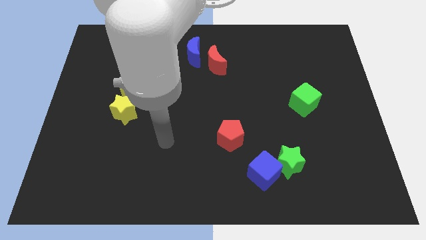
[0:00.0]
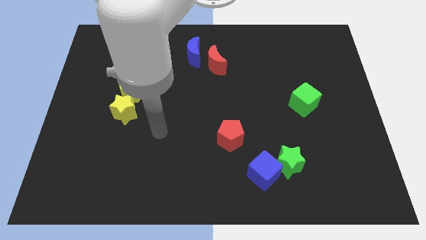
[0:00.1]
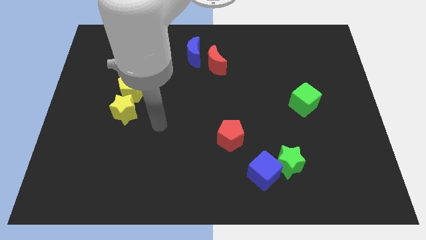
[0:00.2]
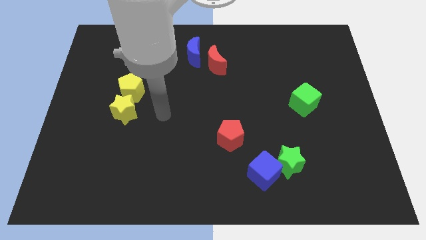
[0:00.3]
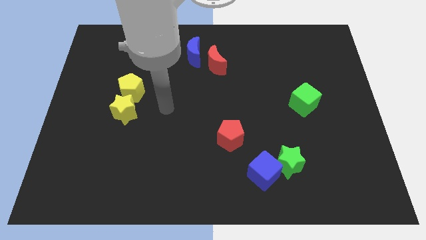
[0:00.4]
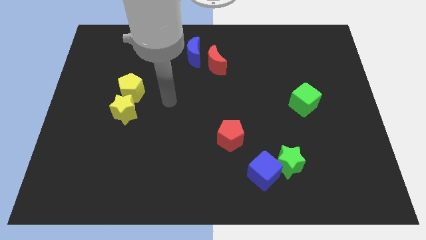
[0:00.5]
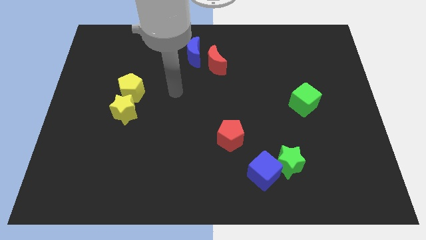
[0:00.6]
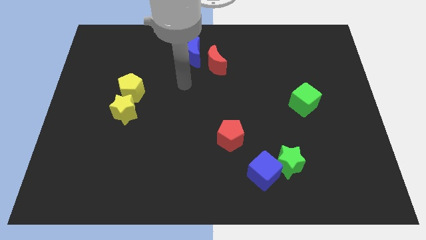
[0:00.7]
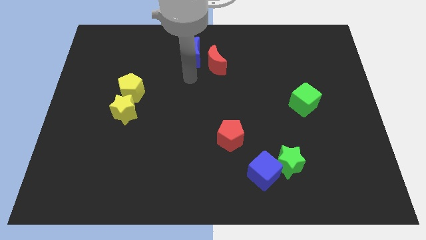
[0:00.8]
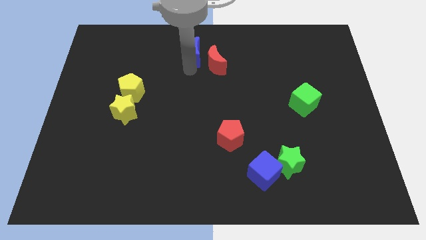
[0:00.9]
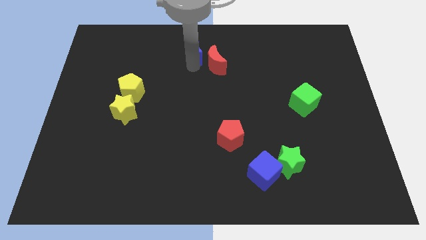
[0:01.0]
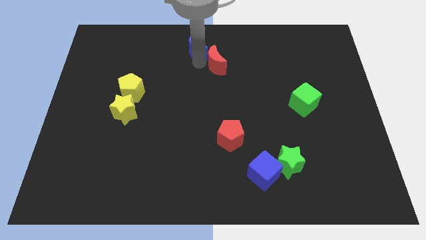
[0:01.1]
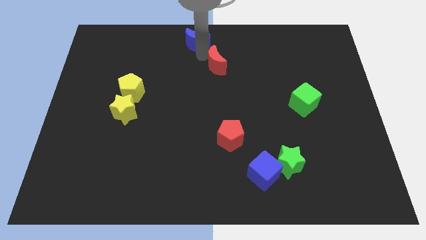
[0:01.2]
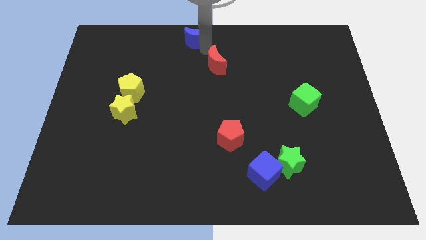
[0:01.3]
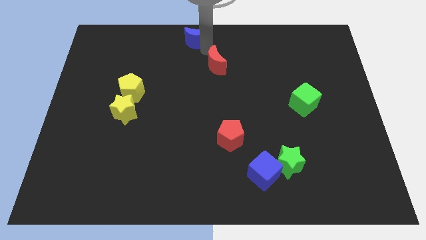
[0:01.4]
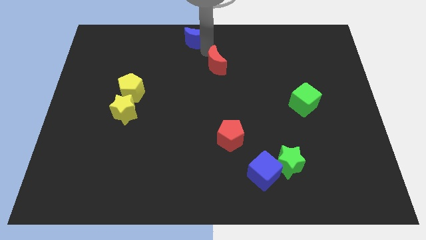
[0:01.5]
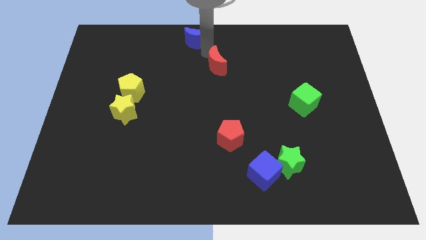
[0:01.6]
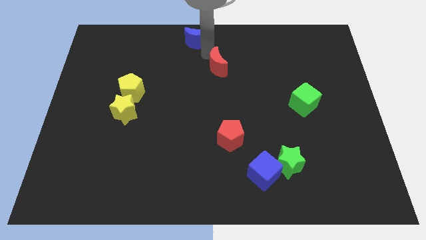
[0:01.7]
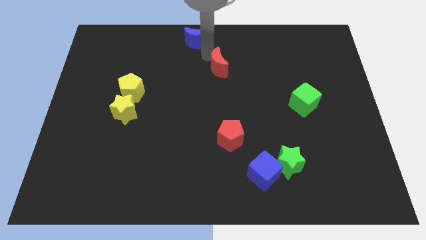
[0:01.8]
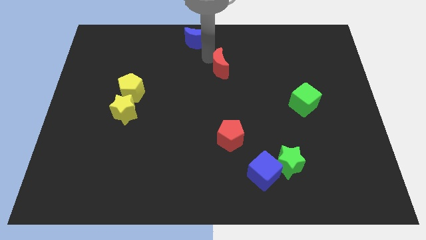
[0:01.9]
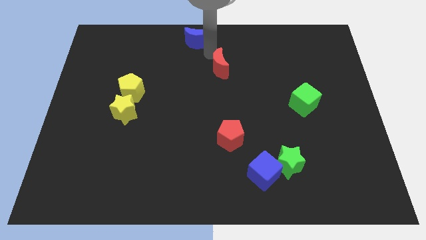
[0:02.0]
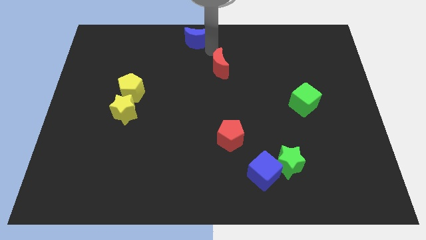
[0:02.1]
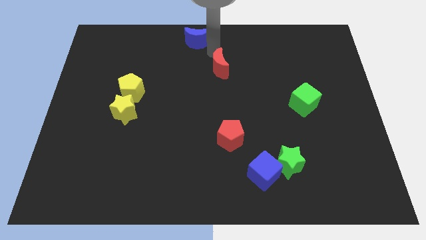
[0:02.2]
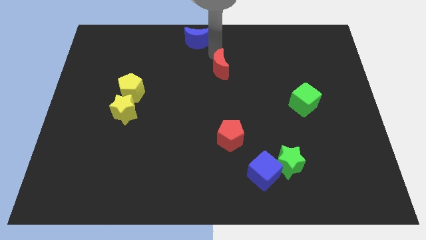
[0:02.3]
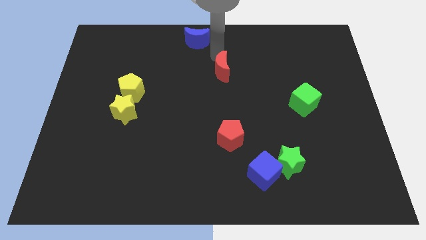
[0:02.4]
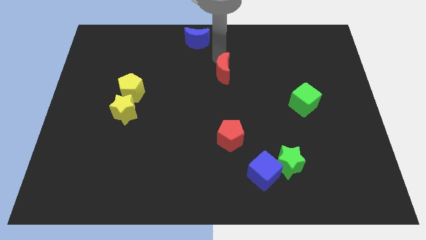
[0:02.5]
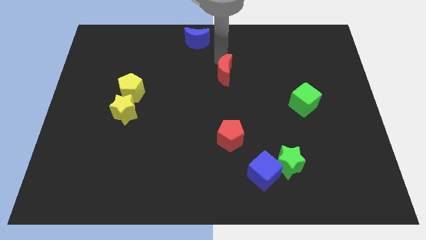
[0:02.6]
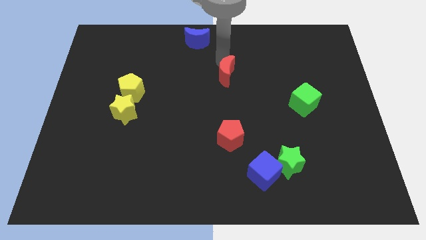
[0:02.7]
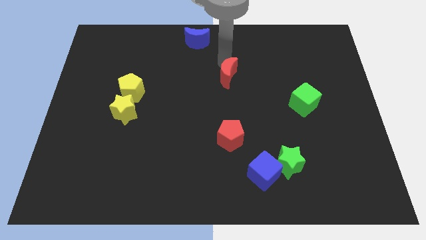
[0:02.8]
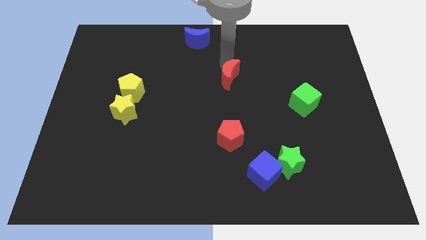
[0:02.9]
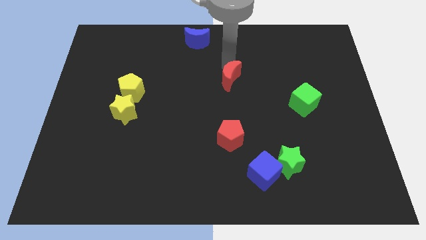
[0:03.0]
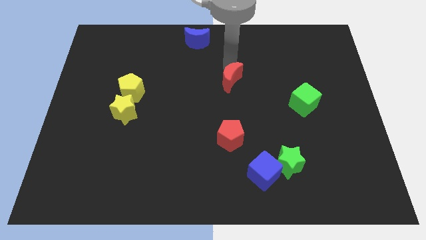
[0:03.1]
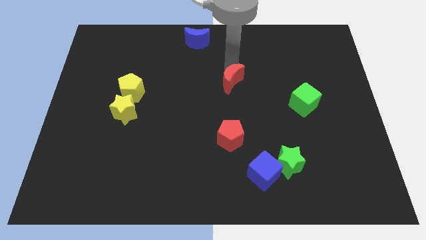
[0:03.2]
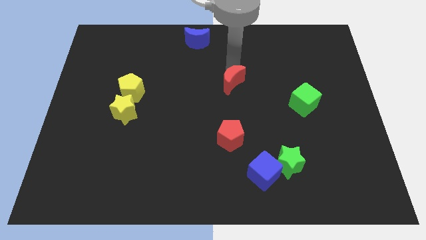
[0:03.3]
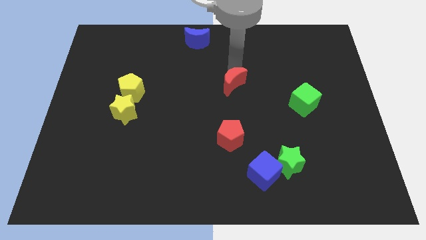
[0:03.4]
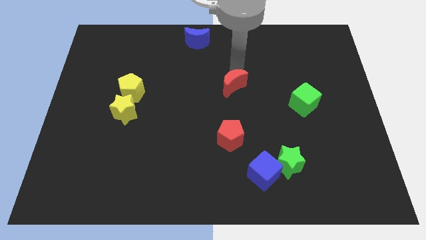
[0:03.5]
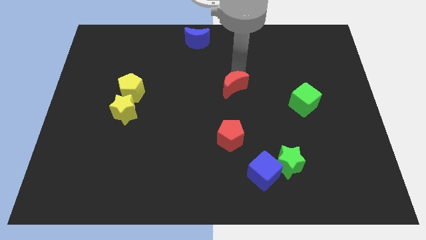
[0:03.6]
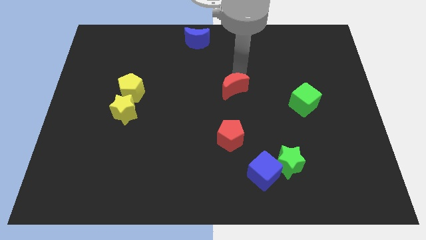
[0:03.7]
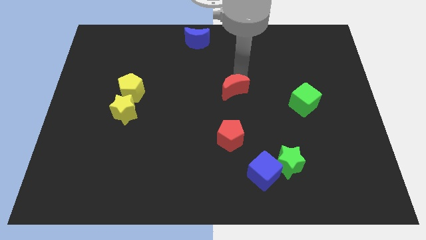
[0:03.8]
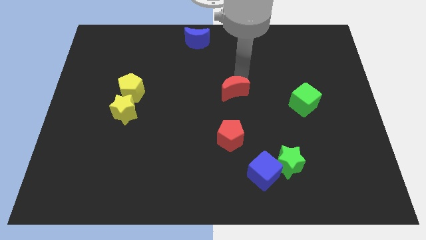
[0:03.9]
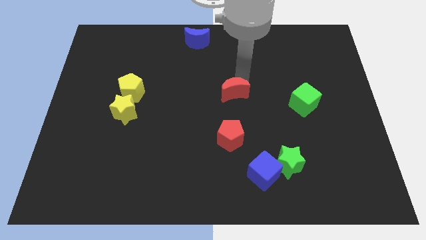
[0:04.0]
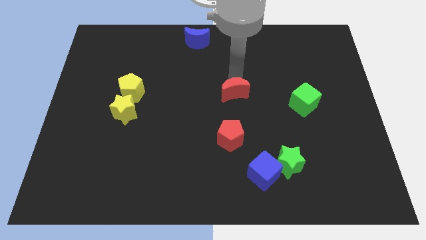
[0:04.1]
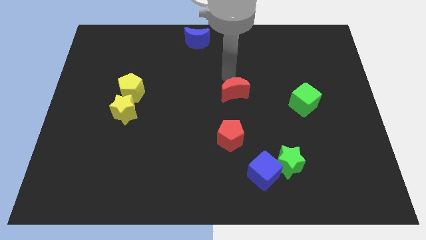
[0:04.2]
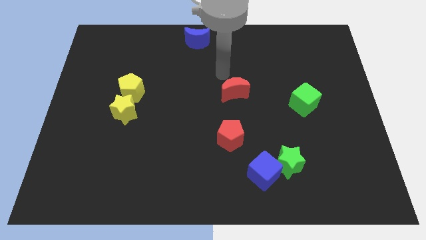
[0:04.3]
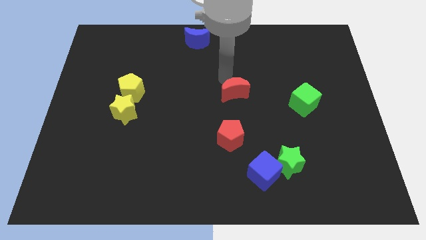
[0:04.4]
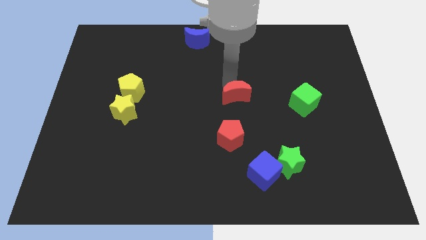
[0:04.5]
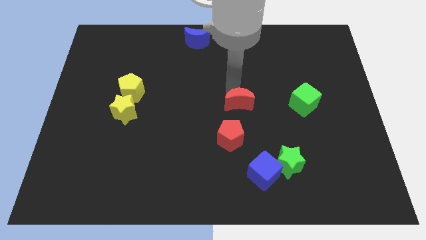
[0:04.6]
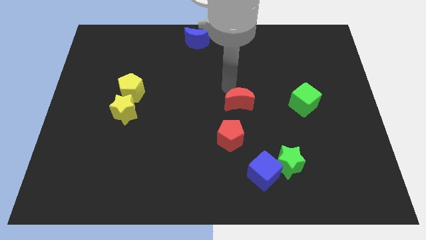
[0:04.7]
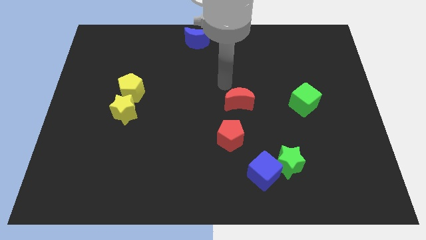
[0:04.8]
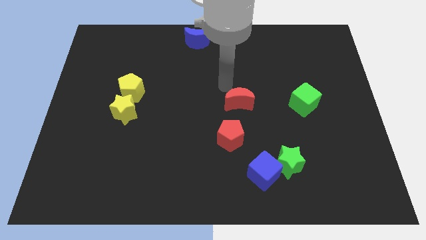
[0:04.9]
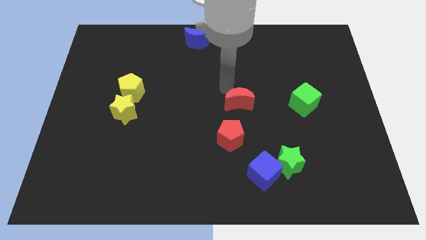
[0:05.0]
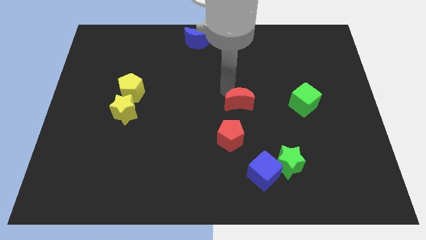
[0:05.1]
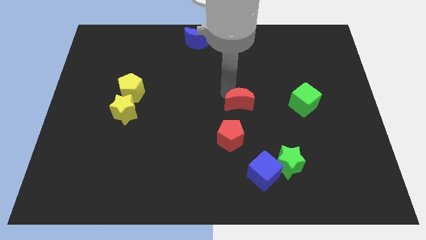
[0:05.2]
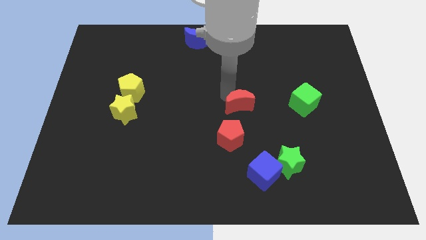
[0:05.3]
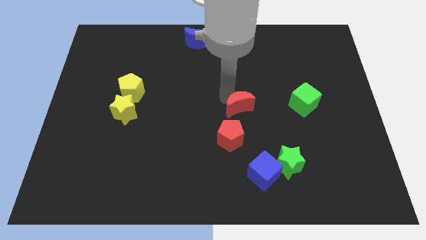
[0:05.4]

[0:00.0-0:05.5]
push the red moon diagonally up and to the right of the red pentagon

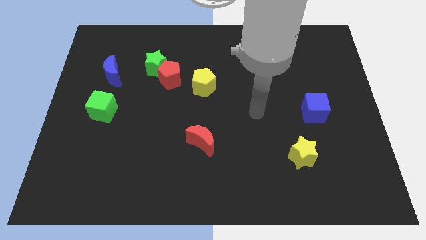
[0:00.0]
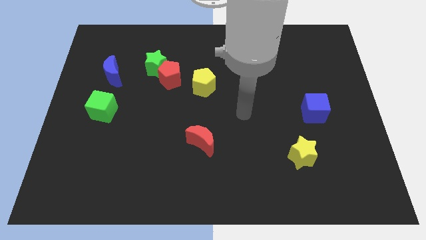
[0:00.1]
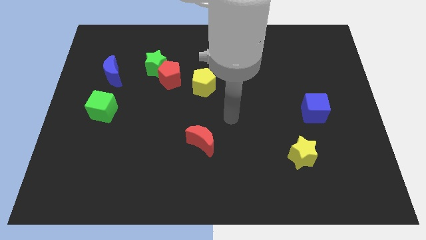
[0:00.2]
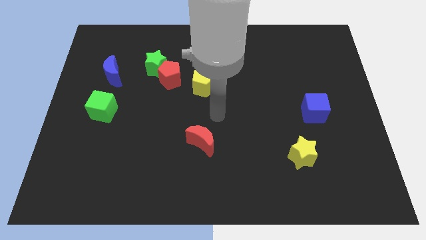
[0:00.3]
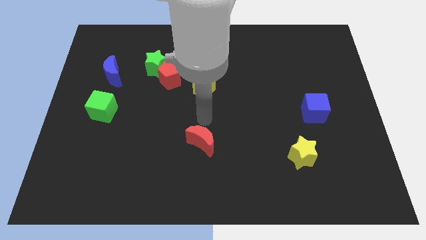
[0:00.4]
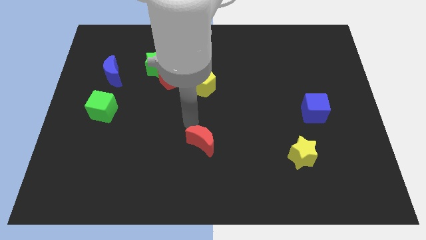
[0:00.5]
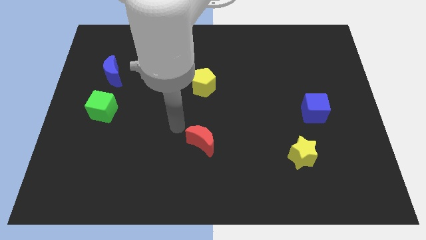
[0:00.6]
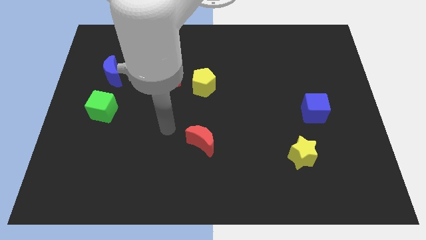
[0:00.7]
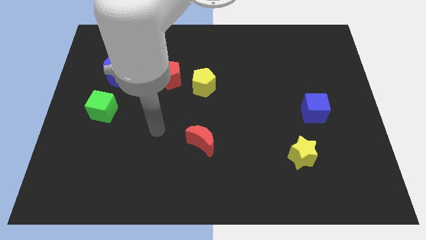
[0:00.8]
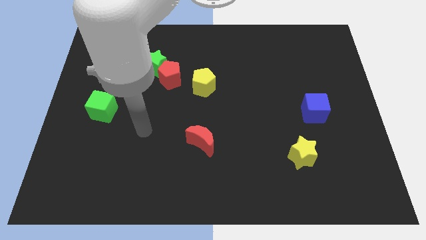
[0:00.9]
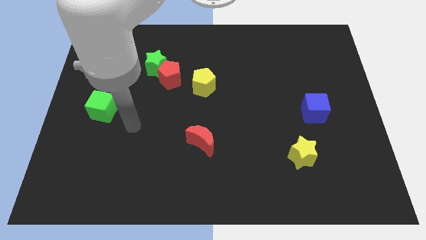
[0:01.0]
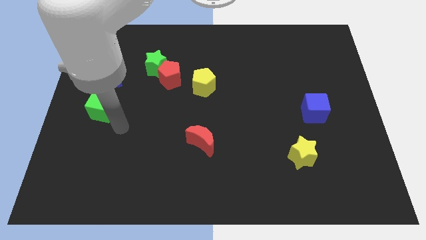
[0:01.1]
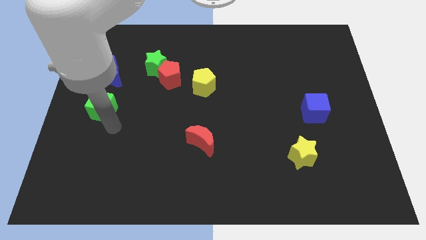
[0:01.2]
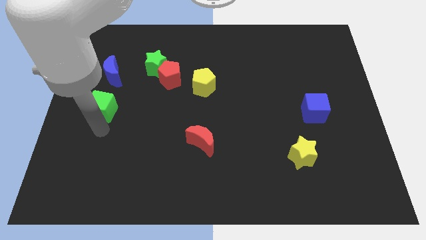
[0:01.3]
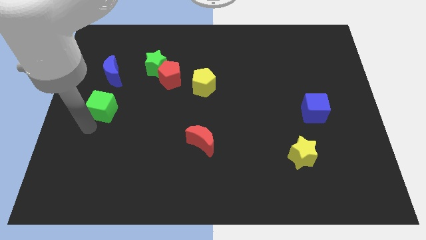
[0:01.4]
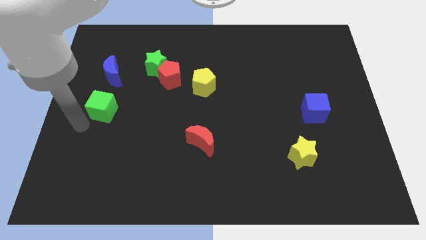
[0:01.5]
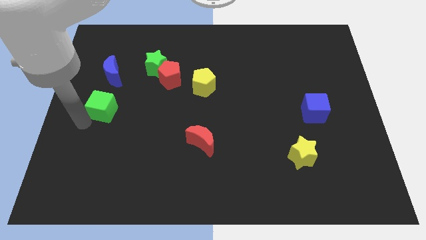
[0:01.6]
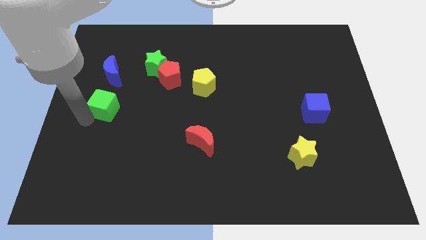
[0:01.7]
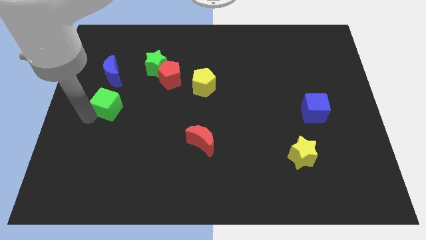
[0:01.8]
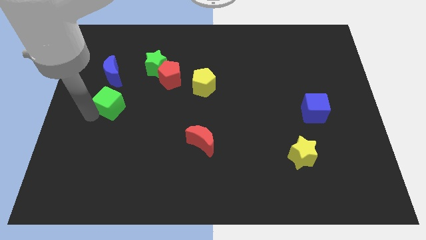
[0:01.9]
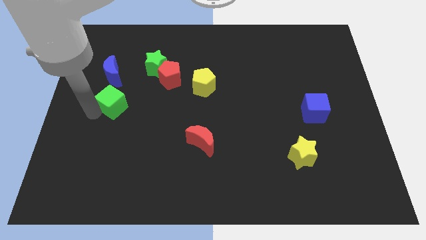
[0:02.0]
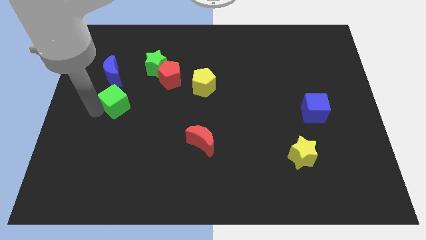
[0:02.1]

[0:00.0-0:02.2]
put the green cube to the bottom right side of the blue moon
